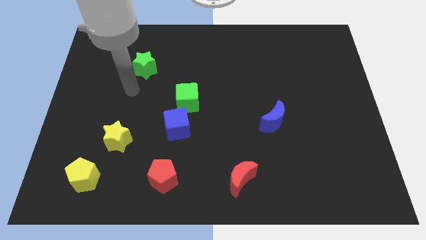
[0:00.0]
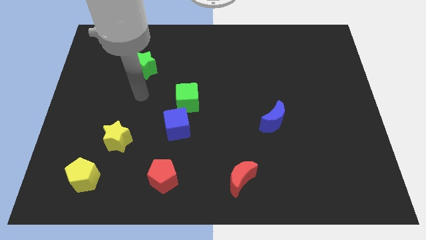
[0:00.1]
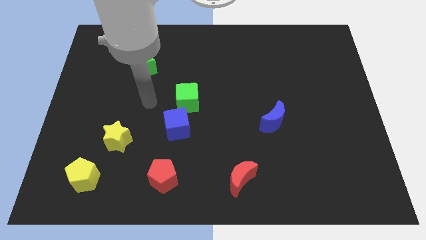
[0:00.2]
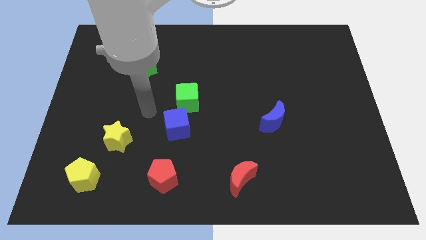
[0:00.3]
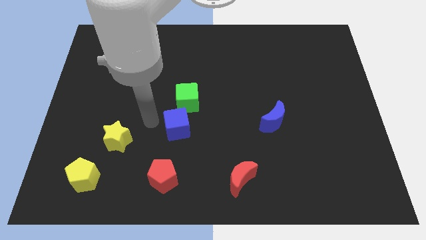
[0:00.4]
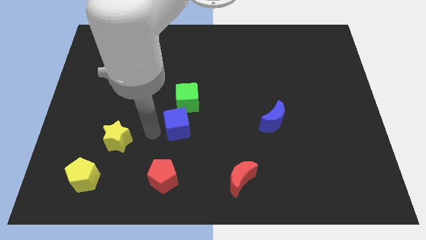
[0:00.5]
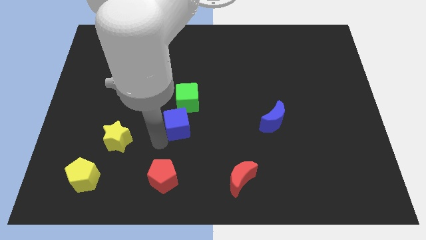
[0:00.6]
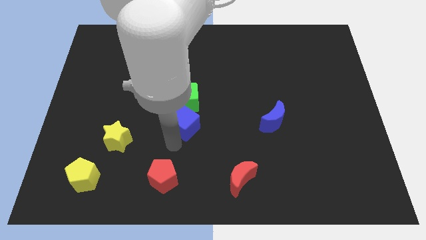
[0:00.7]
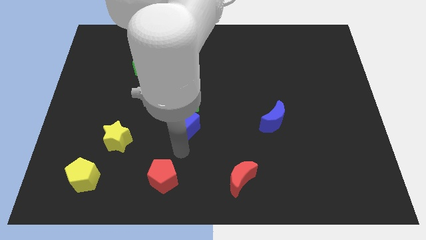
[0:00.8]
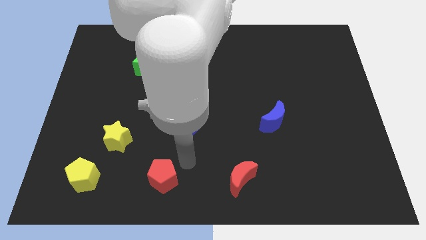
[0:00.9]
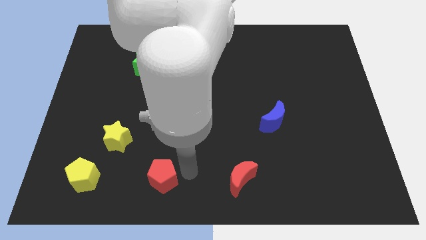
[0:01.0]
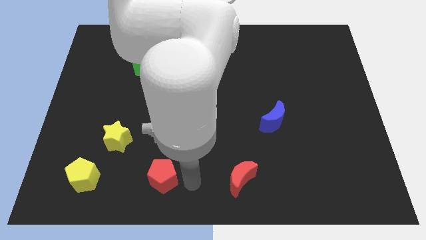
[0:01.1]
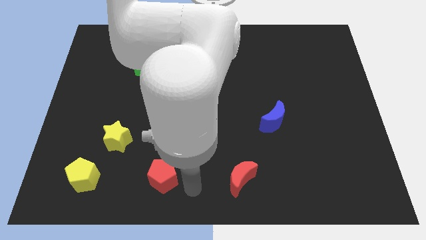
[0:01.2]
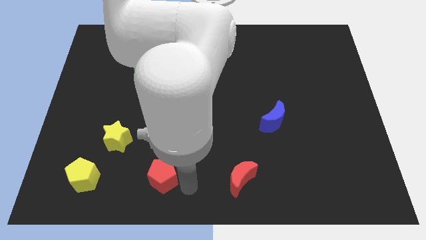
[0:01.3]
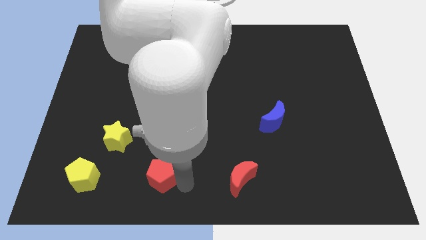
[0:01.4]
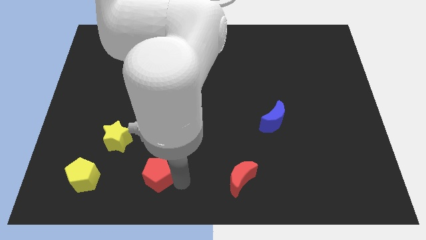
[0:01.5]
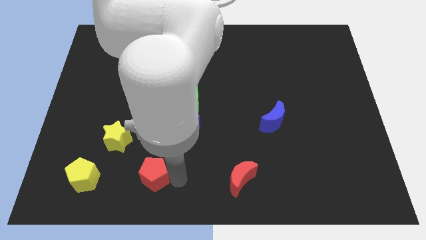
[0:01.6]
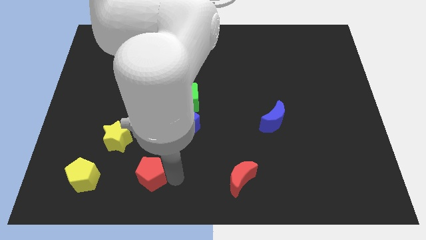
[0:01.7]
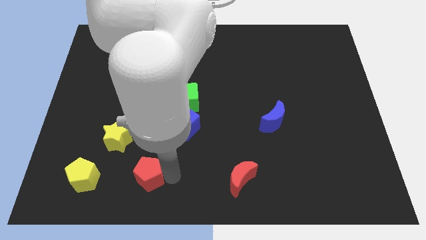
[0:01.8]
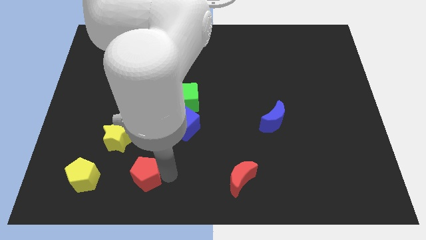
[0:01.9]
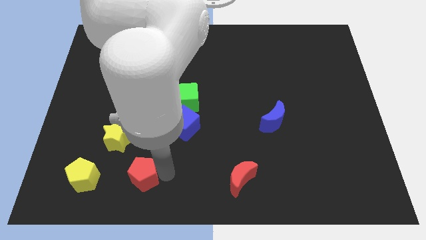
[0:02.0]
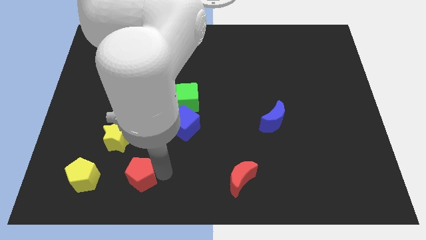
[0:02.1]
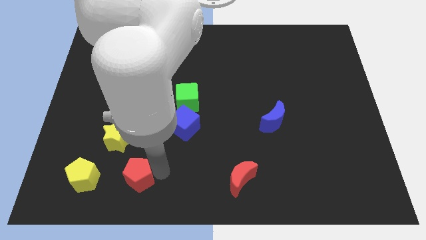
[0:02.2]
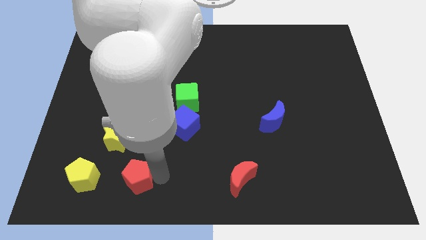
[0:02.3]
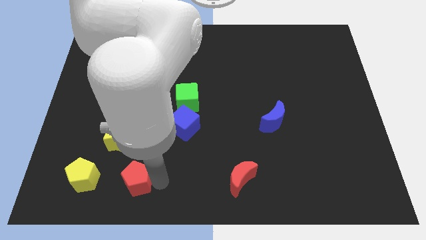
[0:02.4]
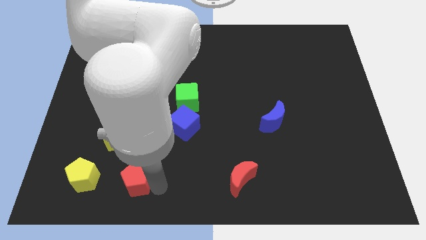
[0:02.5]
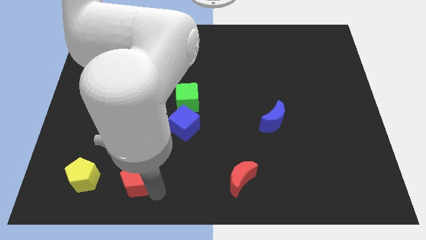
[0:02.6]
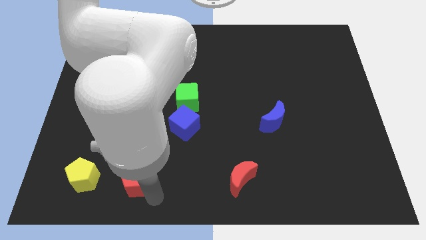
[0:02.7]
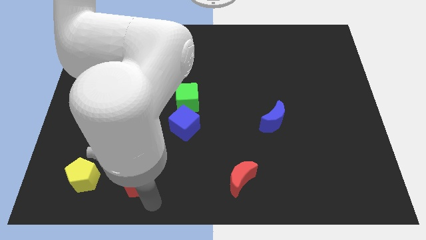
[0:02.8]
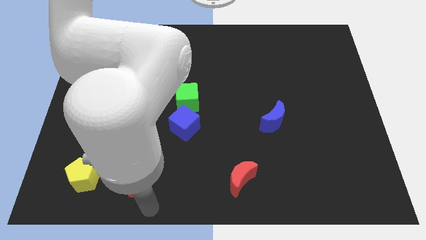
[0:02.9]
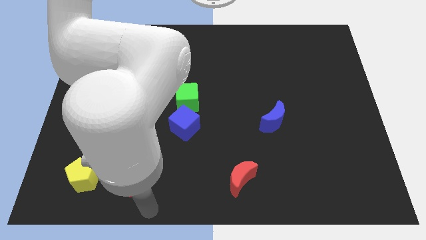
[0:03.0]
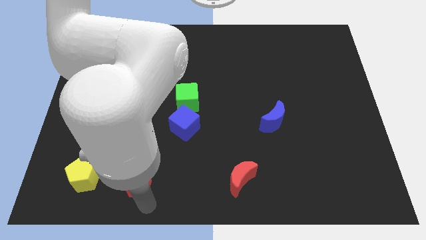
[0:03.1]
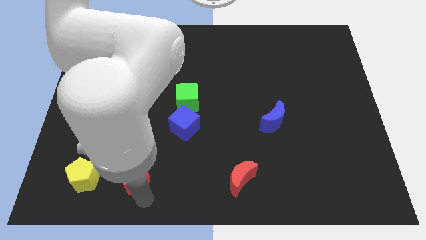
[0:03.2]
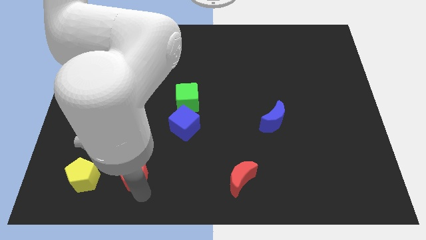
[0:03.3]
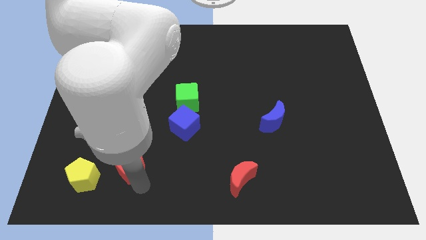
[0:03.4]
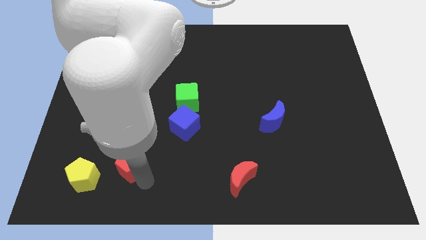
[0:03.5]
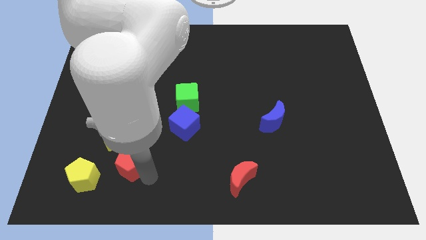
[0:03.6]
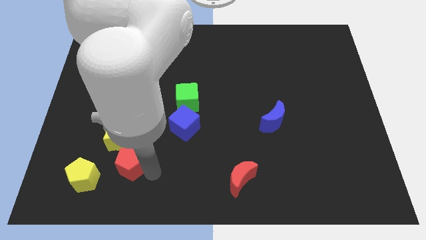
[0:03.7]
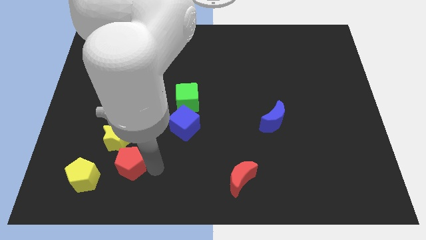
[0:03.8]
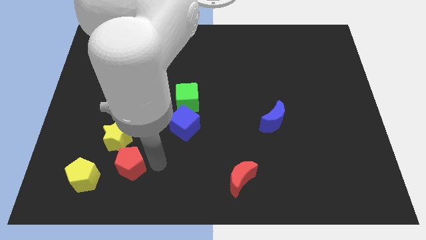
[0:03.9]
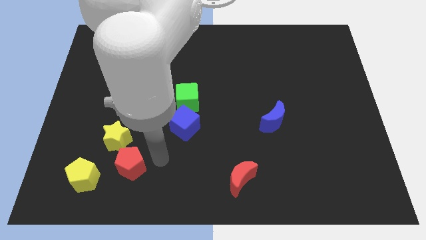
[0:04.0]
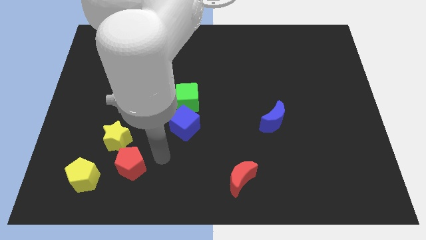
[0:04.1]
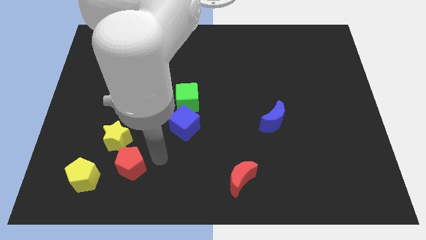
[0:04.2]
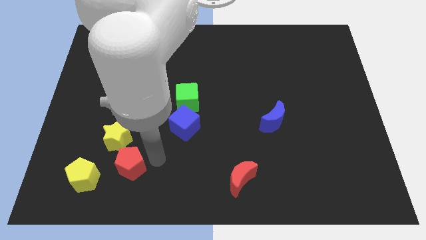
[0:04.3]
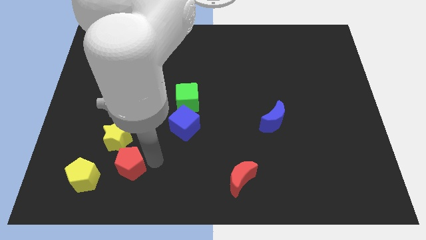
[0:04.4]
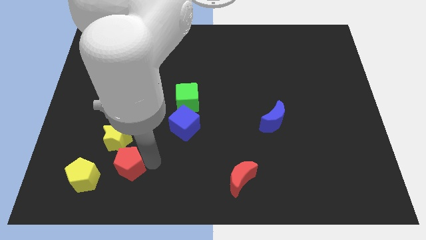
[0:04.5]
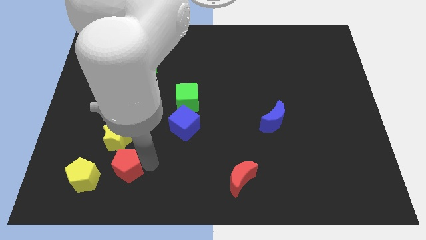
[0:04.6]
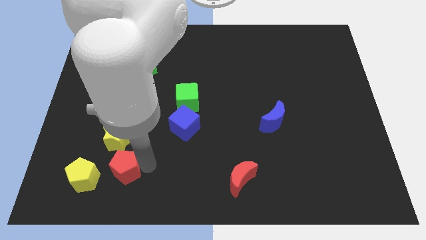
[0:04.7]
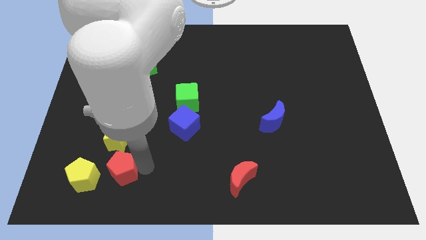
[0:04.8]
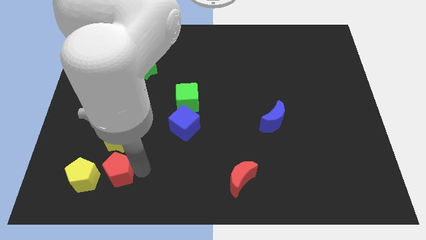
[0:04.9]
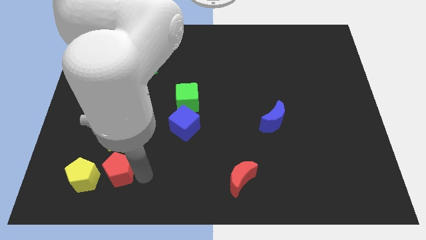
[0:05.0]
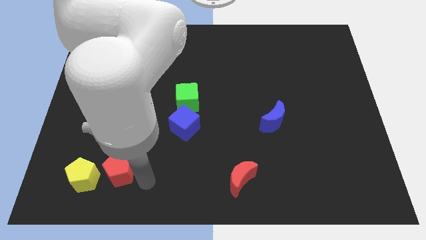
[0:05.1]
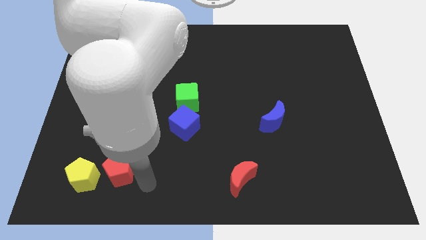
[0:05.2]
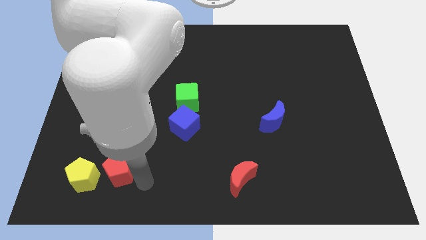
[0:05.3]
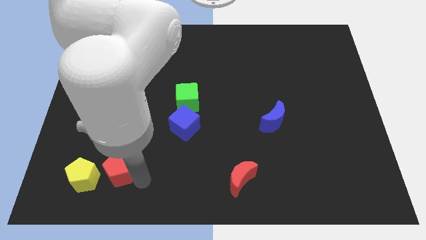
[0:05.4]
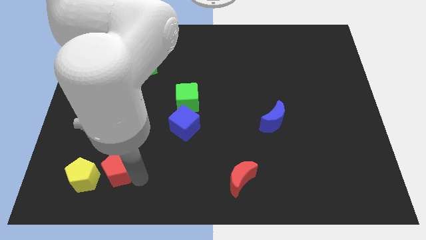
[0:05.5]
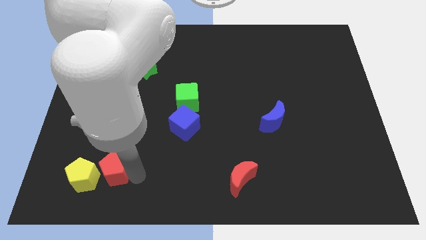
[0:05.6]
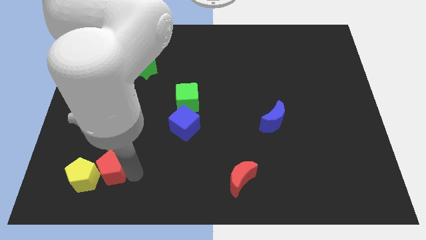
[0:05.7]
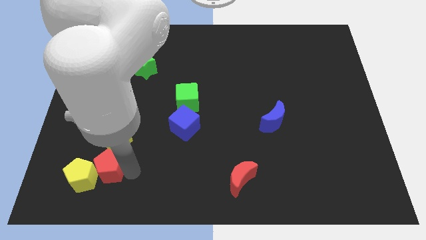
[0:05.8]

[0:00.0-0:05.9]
push the red pentagon to the bottom left side of the yellow star

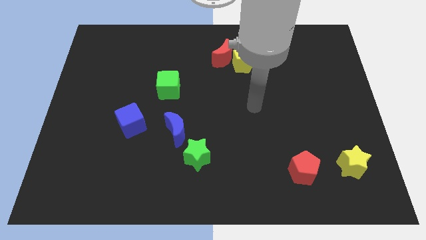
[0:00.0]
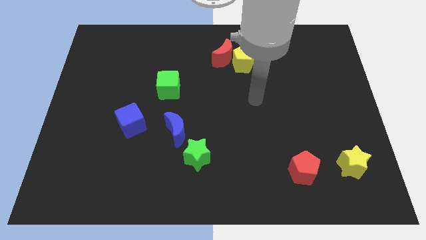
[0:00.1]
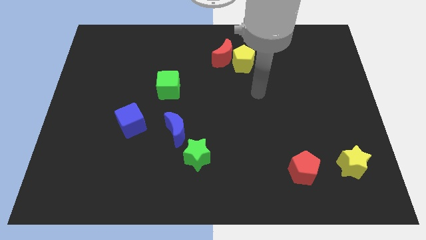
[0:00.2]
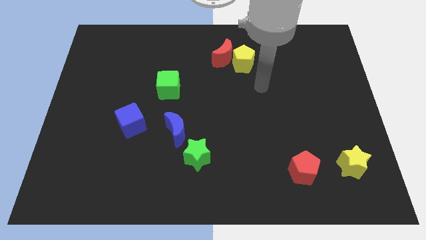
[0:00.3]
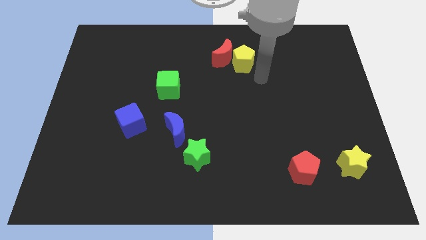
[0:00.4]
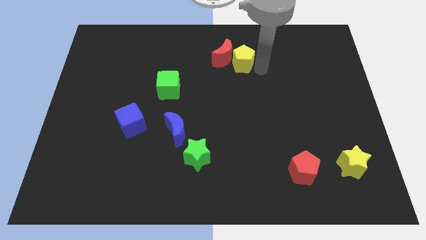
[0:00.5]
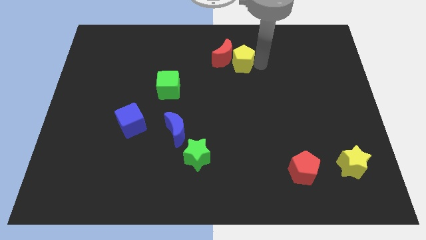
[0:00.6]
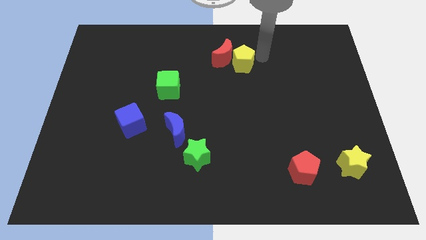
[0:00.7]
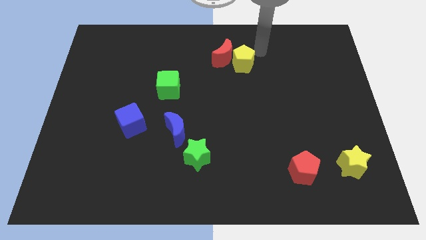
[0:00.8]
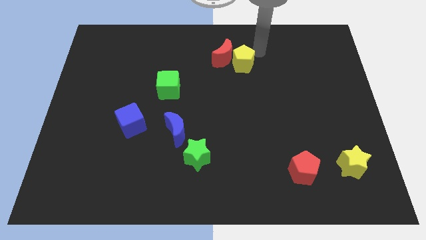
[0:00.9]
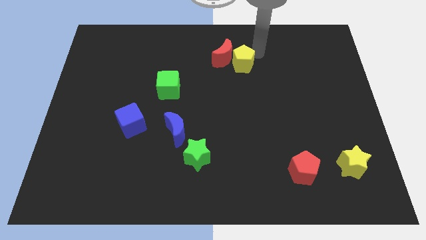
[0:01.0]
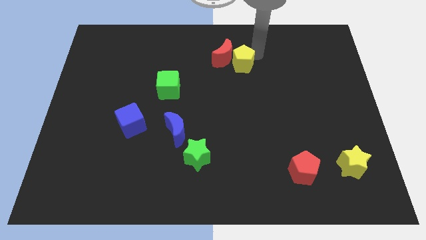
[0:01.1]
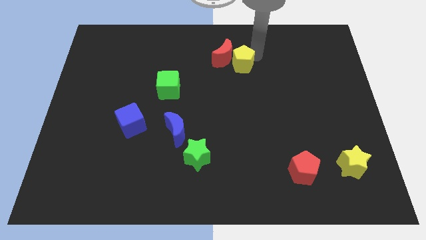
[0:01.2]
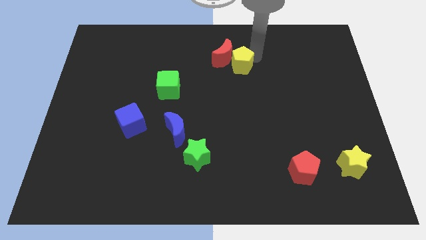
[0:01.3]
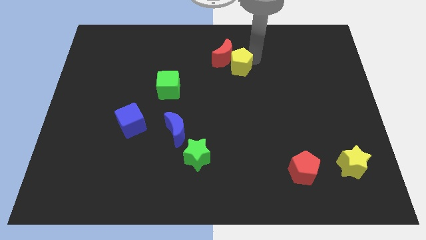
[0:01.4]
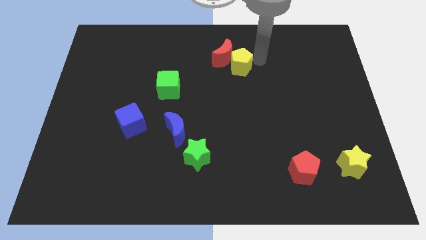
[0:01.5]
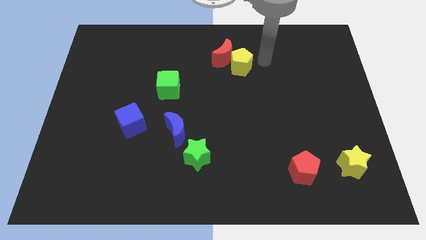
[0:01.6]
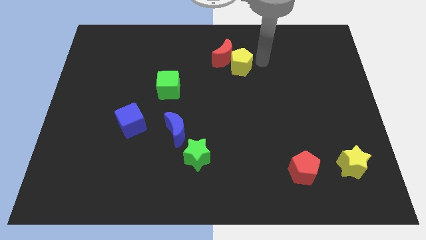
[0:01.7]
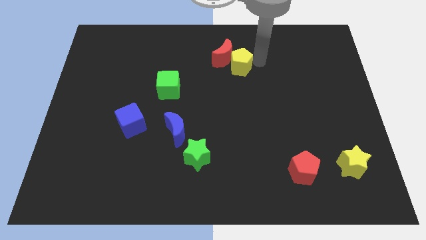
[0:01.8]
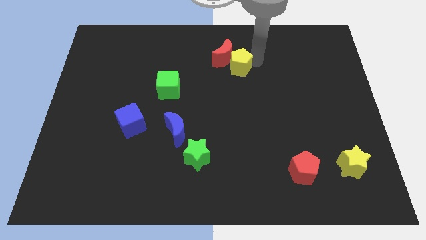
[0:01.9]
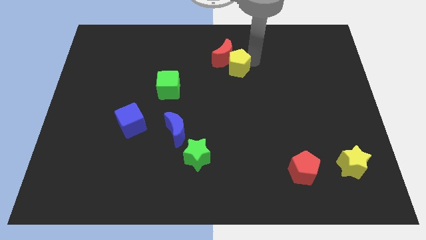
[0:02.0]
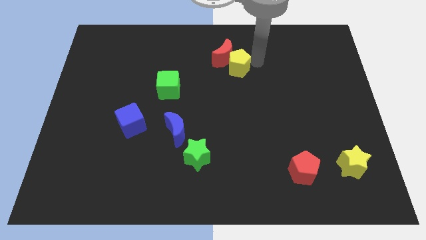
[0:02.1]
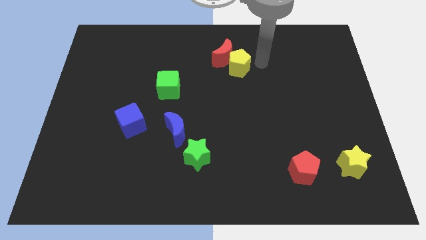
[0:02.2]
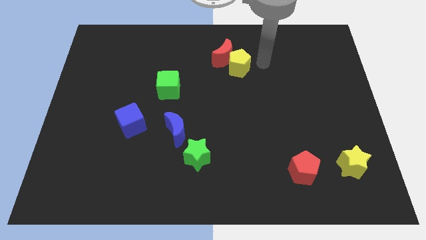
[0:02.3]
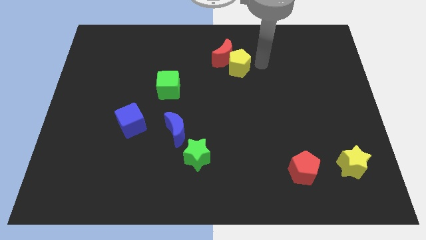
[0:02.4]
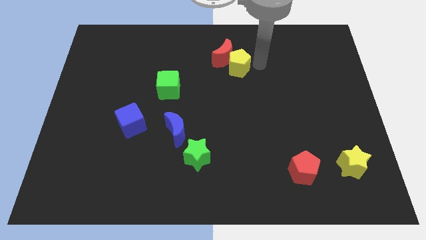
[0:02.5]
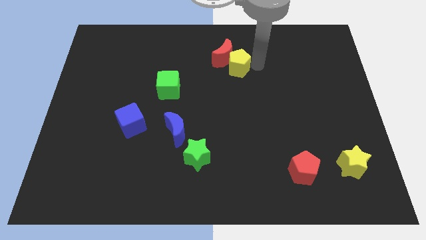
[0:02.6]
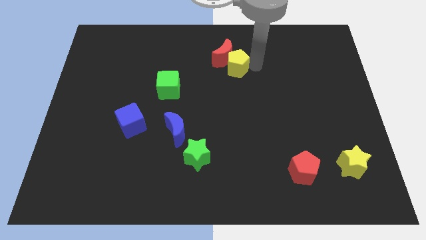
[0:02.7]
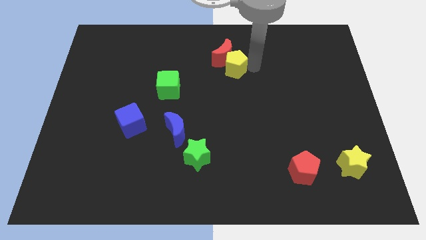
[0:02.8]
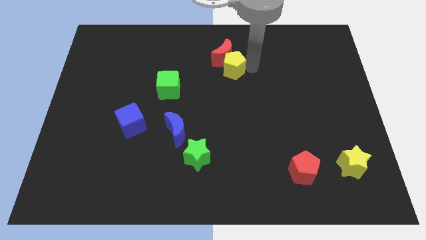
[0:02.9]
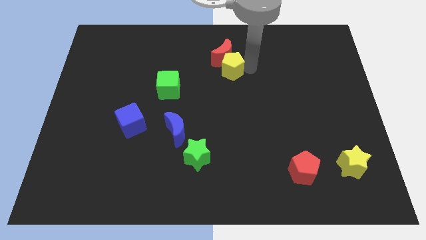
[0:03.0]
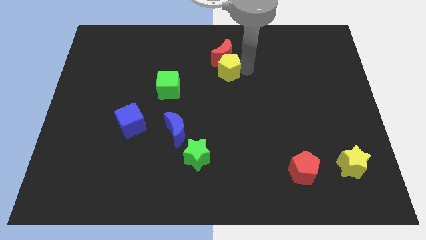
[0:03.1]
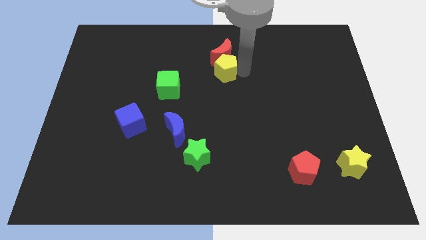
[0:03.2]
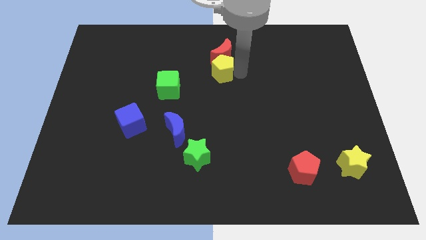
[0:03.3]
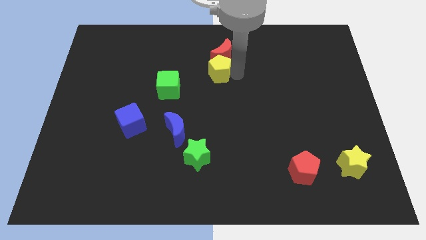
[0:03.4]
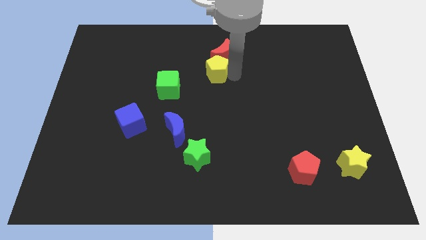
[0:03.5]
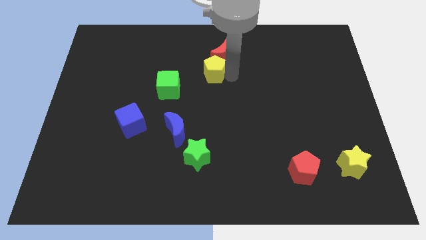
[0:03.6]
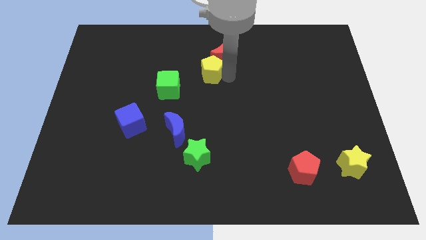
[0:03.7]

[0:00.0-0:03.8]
slide the yellow pentagon to the top right side of the green cube
